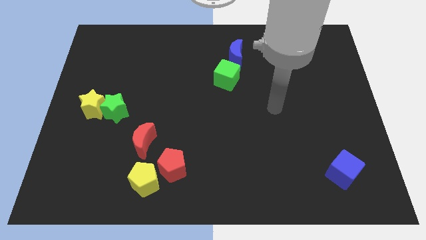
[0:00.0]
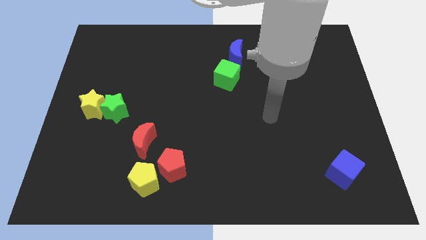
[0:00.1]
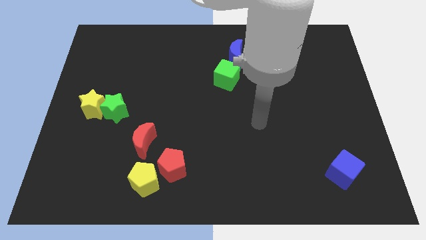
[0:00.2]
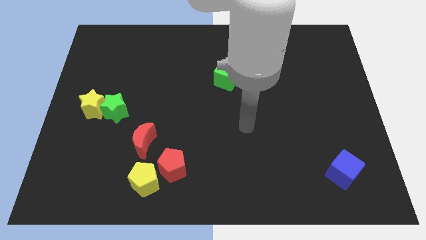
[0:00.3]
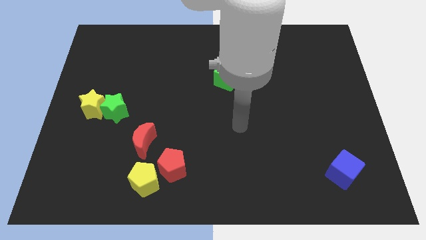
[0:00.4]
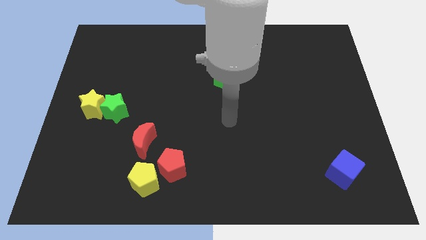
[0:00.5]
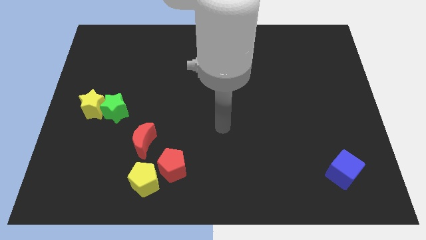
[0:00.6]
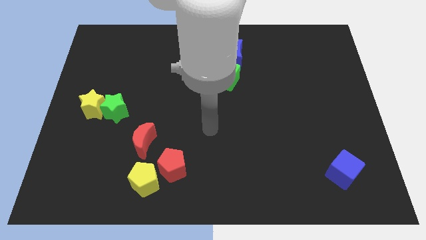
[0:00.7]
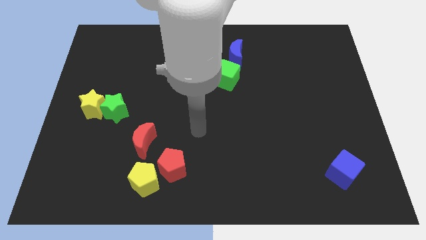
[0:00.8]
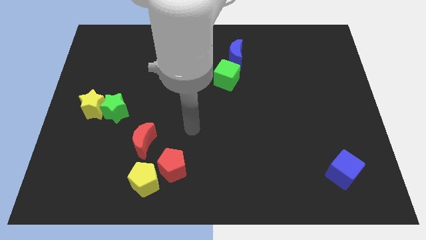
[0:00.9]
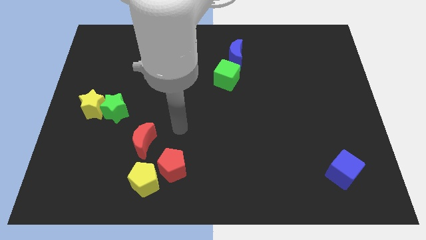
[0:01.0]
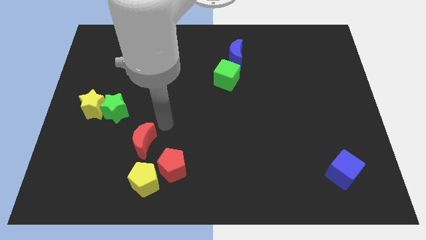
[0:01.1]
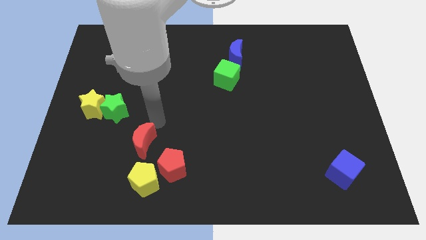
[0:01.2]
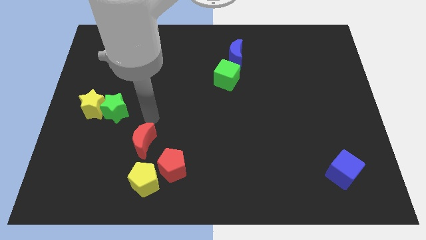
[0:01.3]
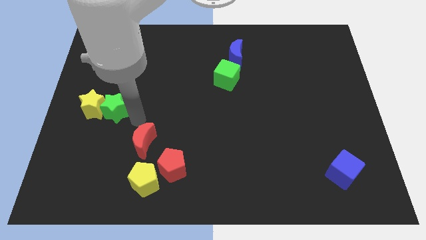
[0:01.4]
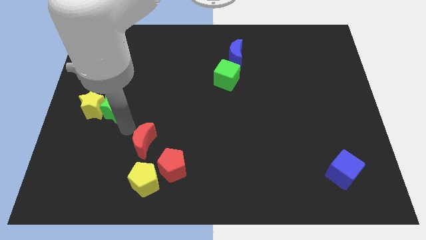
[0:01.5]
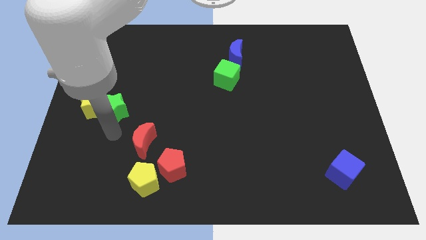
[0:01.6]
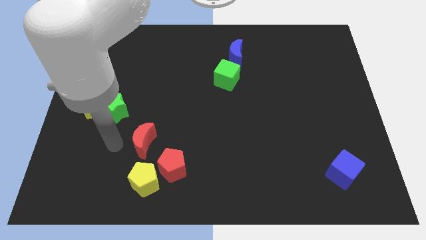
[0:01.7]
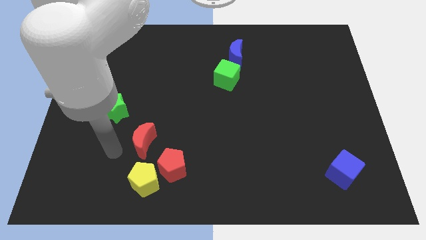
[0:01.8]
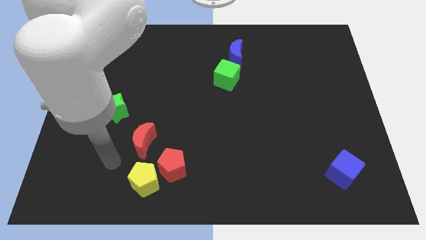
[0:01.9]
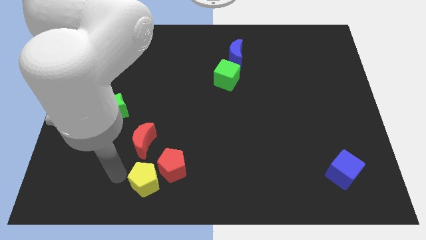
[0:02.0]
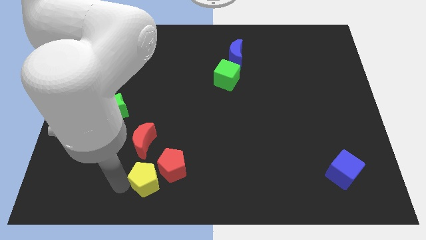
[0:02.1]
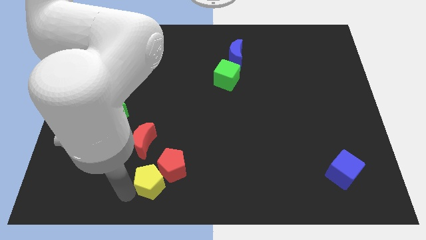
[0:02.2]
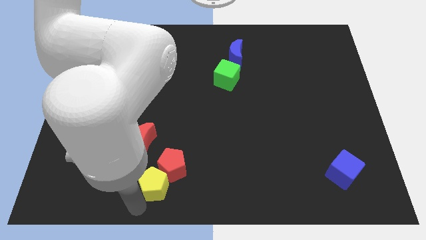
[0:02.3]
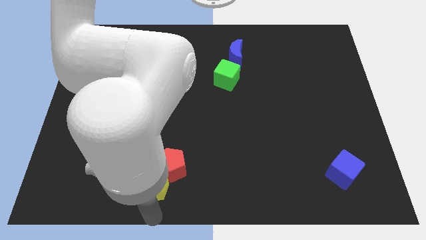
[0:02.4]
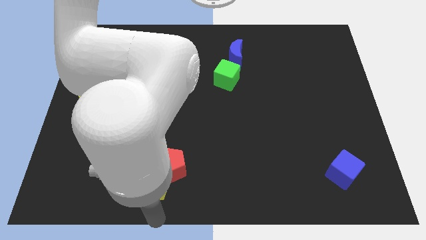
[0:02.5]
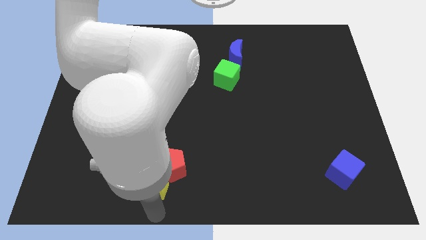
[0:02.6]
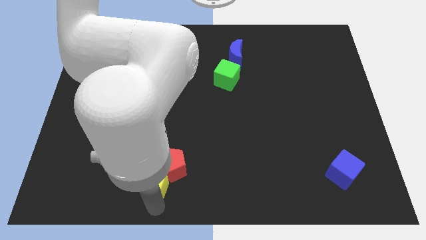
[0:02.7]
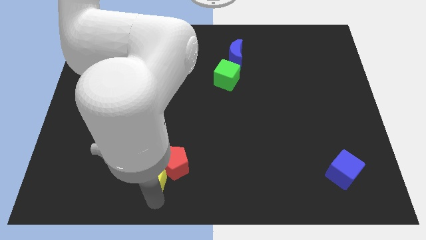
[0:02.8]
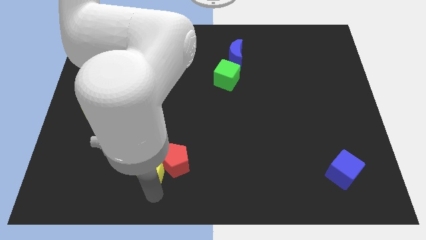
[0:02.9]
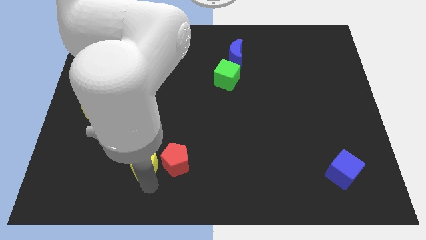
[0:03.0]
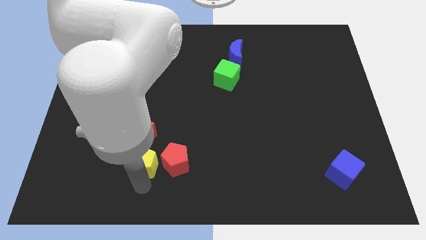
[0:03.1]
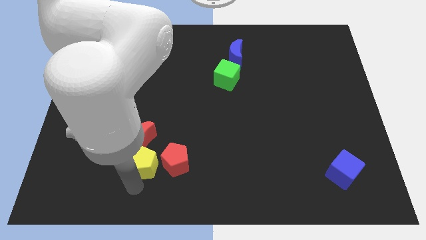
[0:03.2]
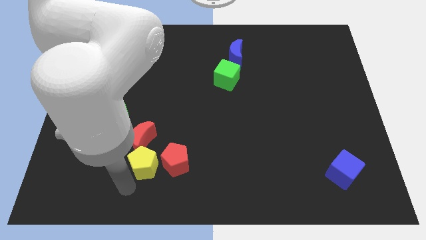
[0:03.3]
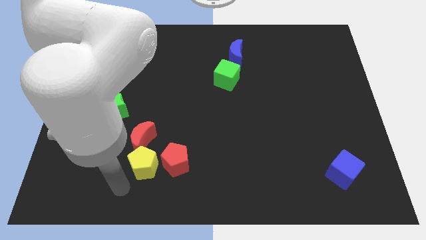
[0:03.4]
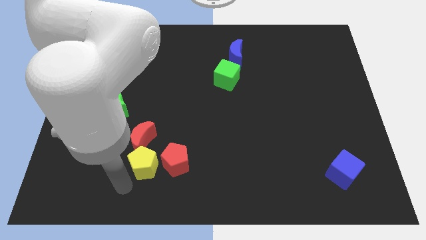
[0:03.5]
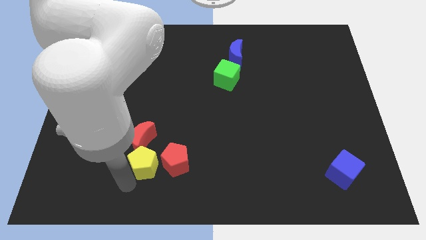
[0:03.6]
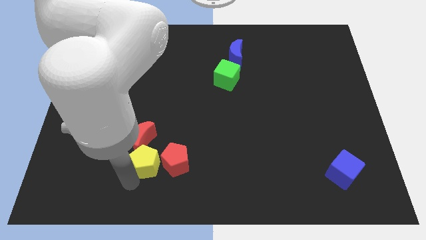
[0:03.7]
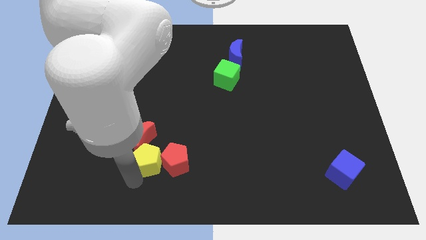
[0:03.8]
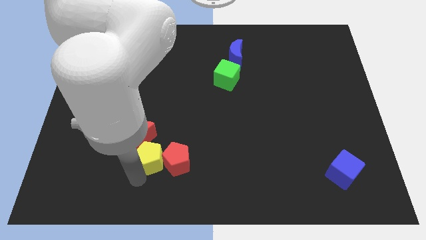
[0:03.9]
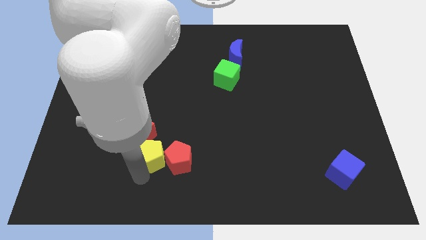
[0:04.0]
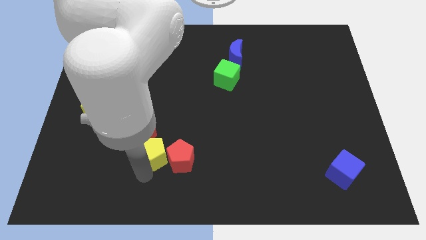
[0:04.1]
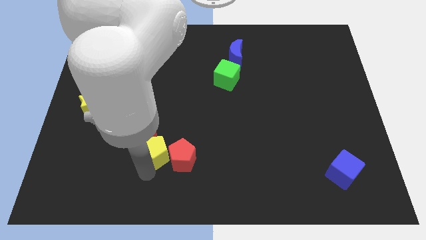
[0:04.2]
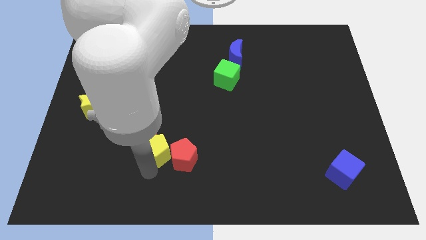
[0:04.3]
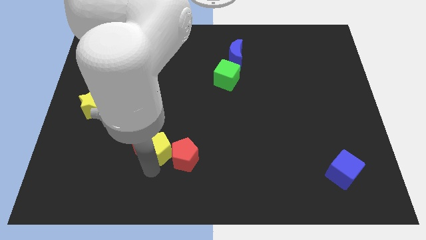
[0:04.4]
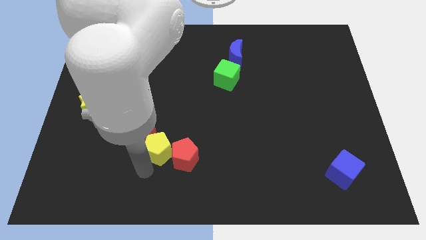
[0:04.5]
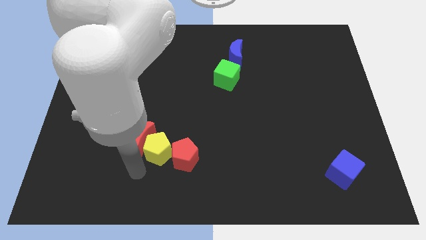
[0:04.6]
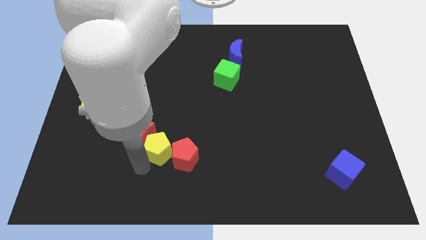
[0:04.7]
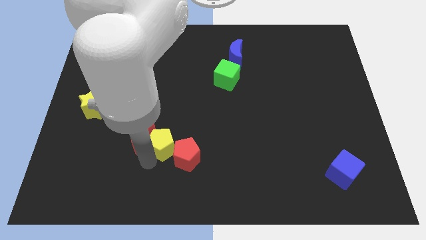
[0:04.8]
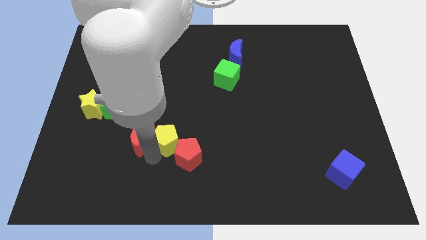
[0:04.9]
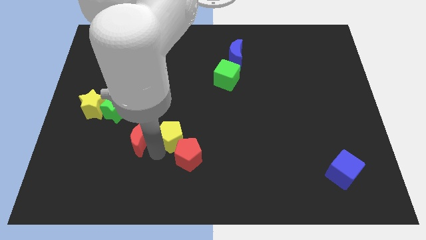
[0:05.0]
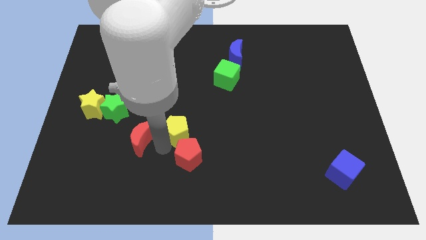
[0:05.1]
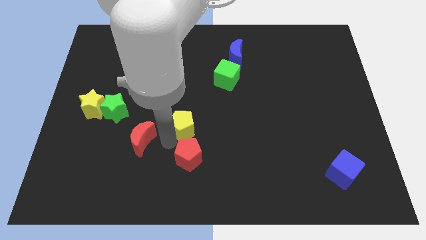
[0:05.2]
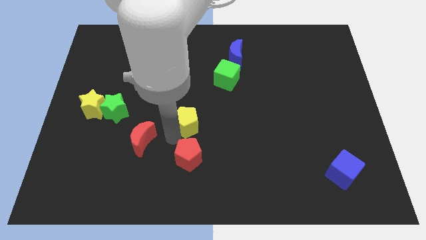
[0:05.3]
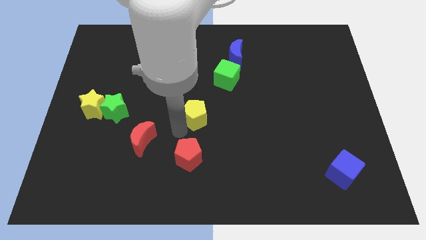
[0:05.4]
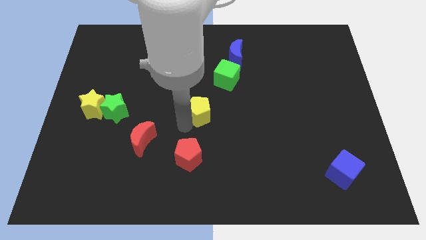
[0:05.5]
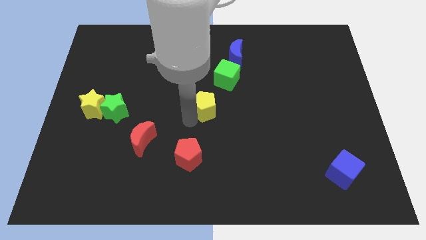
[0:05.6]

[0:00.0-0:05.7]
slide the yellow pentagon up and to the right

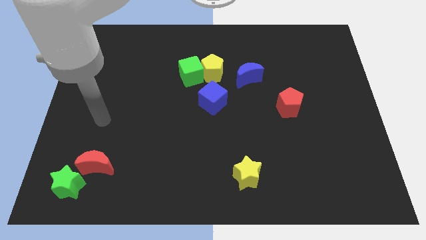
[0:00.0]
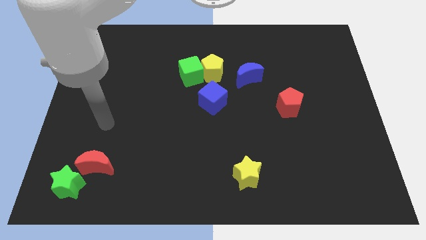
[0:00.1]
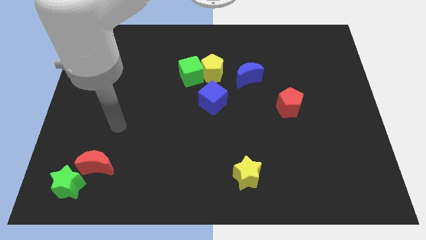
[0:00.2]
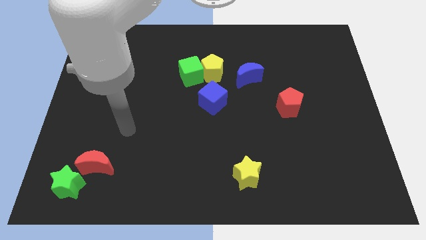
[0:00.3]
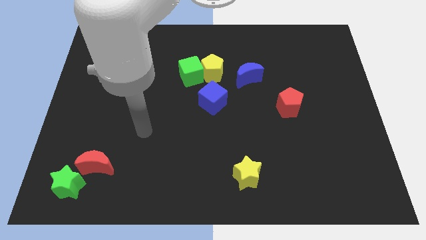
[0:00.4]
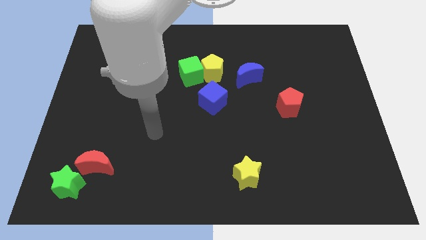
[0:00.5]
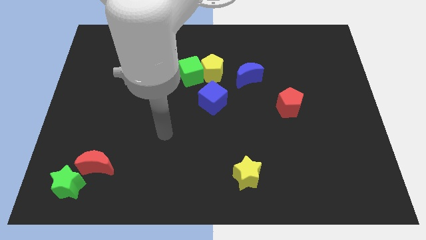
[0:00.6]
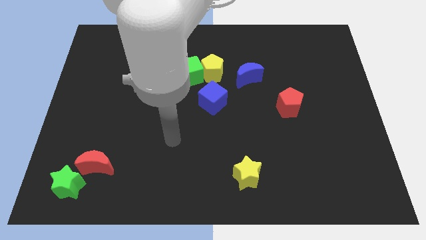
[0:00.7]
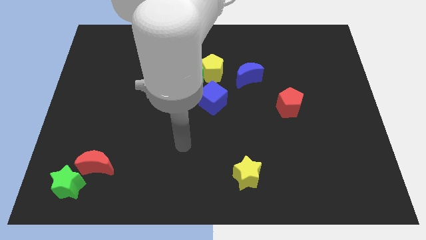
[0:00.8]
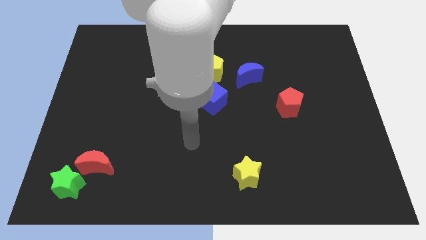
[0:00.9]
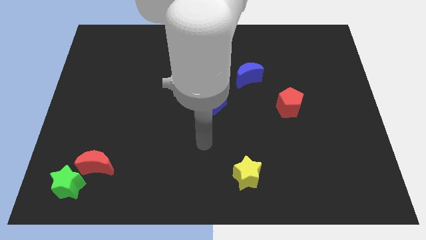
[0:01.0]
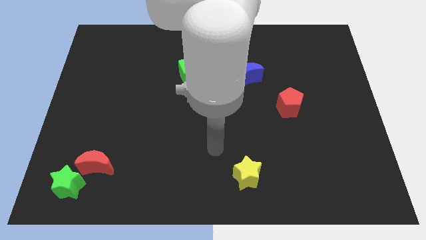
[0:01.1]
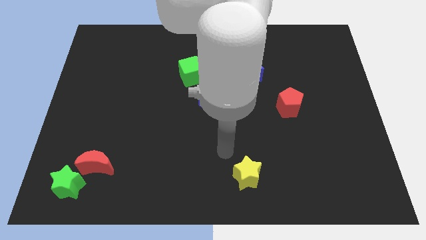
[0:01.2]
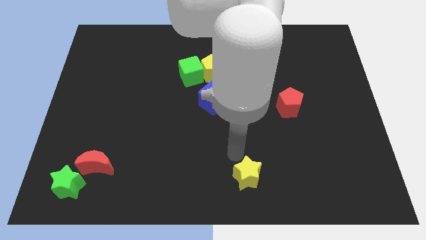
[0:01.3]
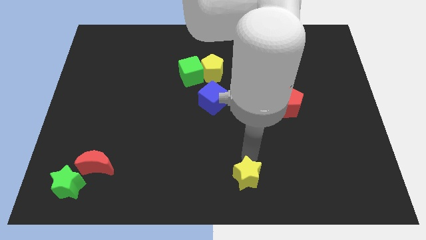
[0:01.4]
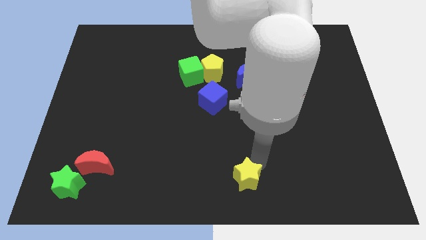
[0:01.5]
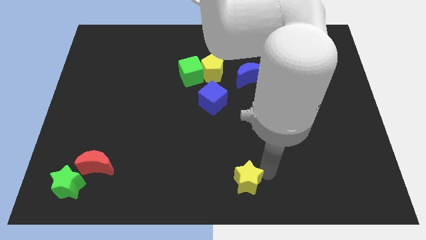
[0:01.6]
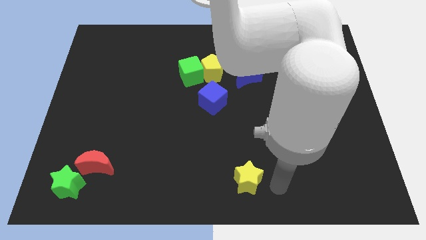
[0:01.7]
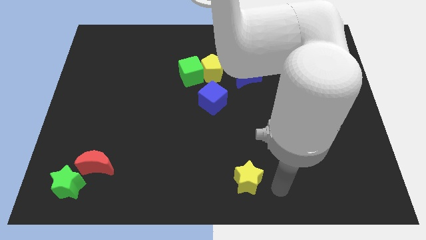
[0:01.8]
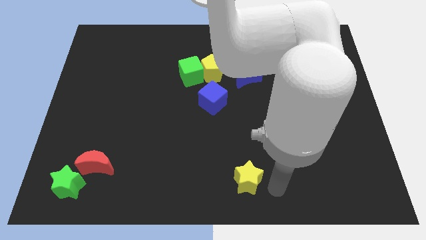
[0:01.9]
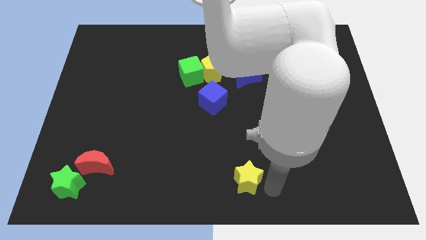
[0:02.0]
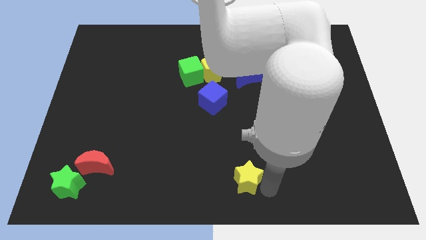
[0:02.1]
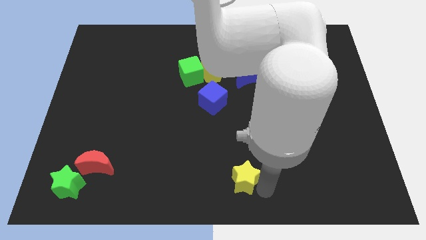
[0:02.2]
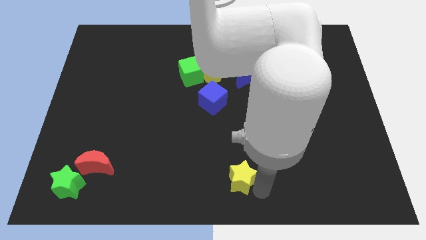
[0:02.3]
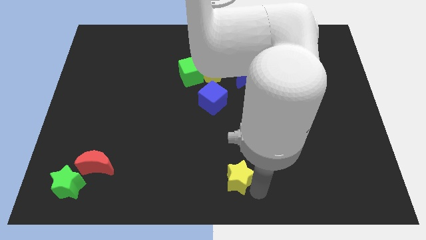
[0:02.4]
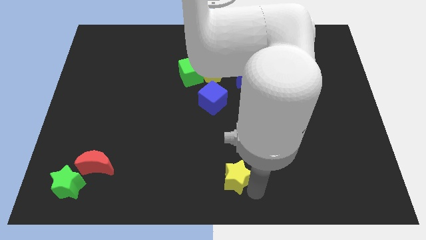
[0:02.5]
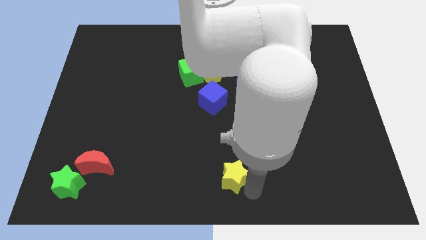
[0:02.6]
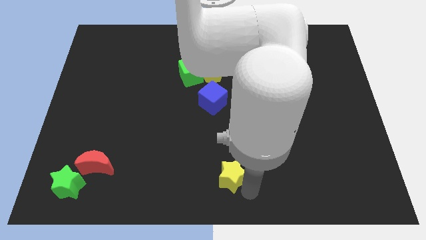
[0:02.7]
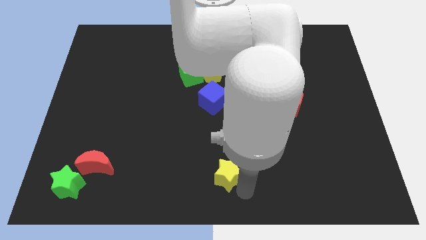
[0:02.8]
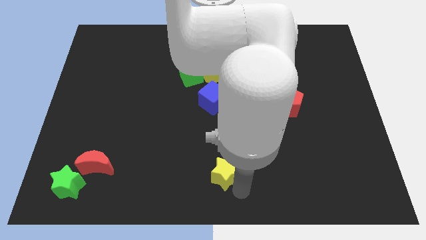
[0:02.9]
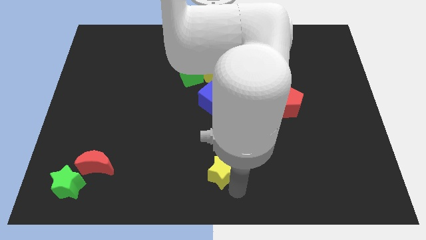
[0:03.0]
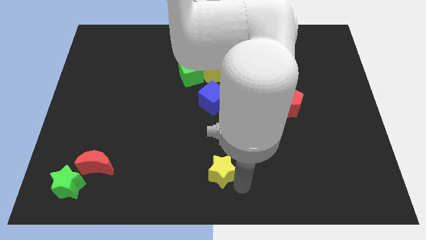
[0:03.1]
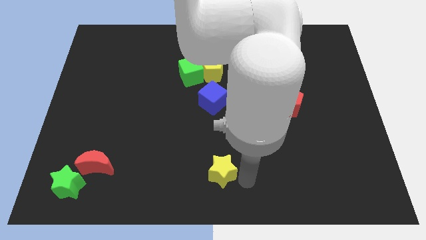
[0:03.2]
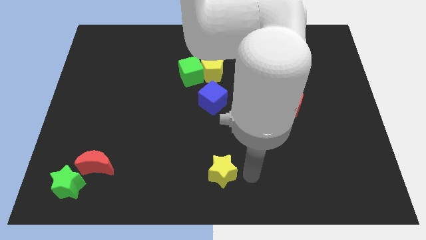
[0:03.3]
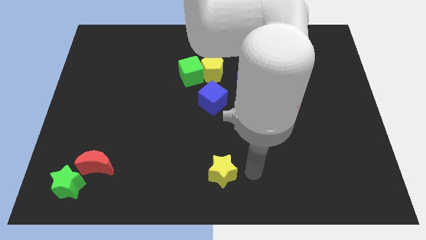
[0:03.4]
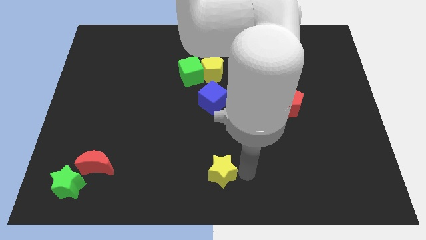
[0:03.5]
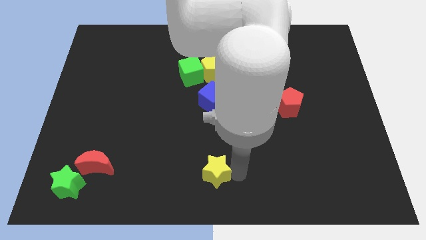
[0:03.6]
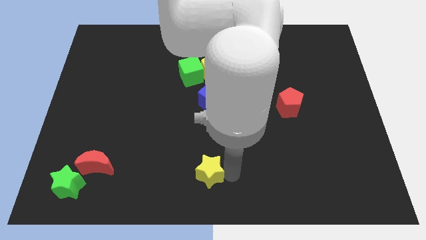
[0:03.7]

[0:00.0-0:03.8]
push the yellow star a bit left
